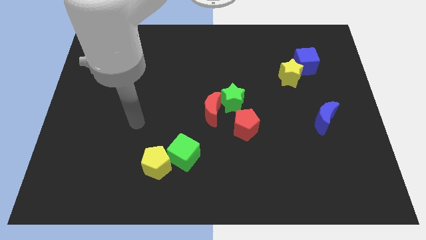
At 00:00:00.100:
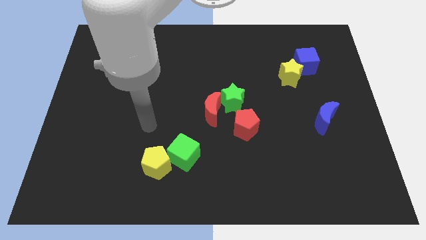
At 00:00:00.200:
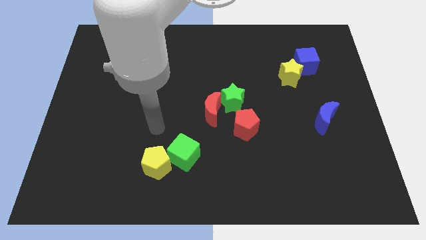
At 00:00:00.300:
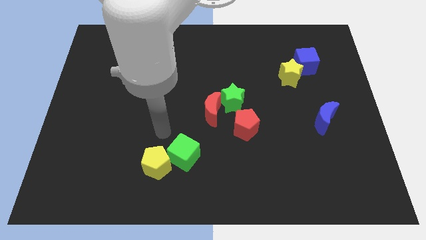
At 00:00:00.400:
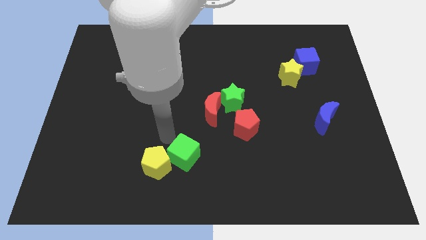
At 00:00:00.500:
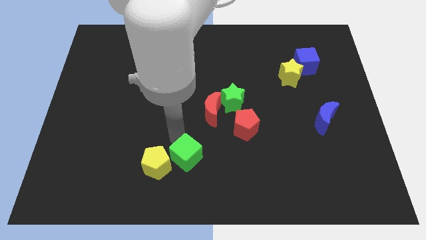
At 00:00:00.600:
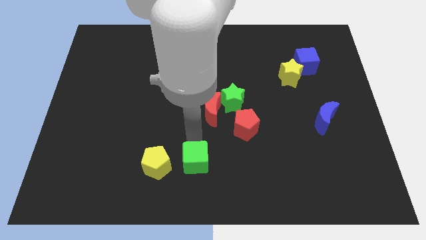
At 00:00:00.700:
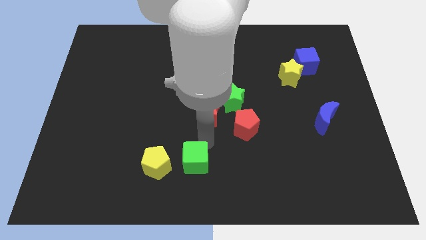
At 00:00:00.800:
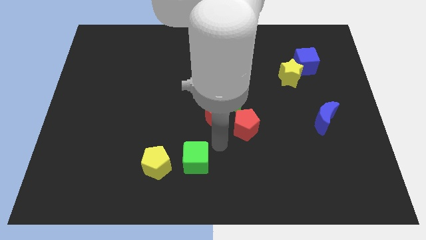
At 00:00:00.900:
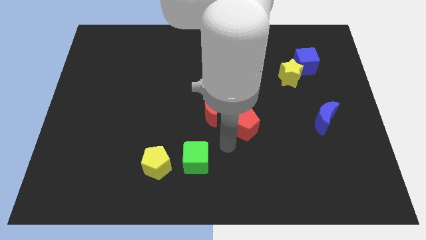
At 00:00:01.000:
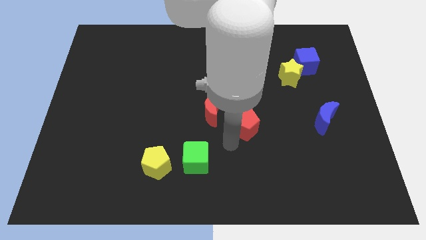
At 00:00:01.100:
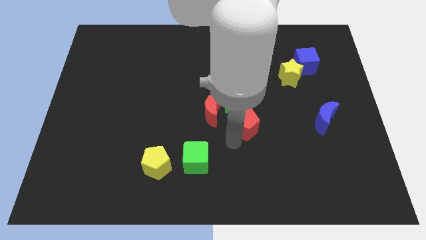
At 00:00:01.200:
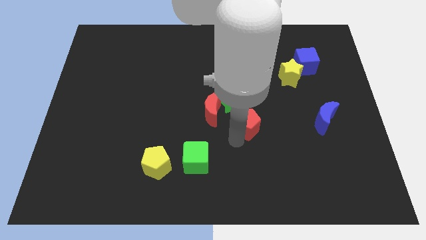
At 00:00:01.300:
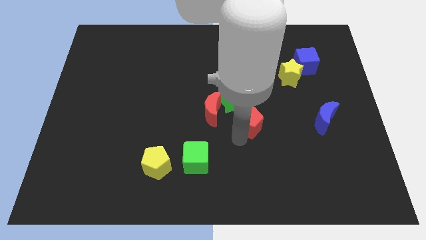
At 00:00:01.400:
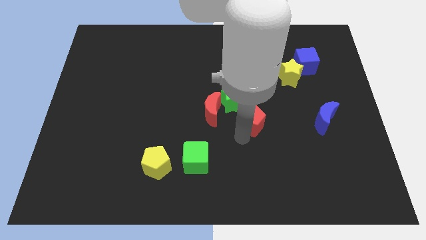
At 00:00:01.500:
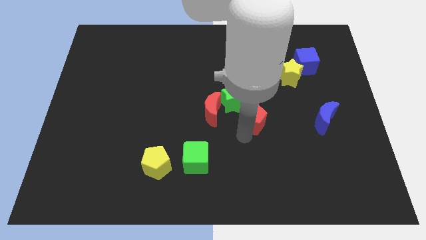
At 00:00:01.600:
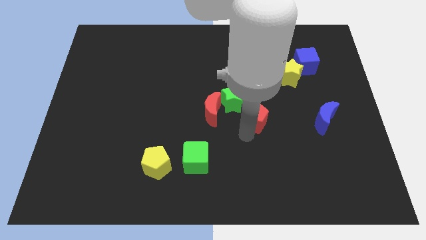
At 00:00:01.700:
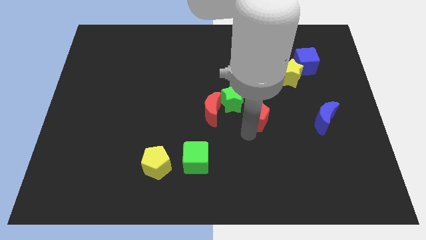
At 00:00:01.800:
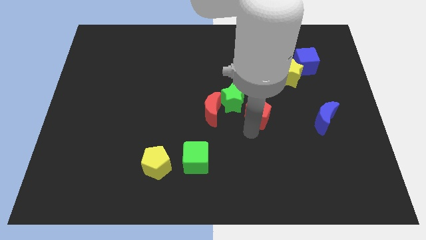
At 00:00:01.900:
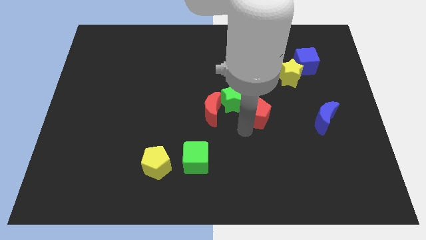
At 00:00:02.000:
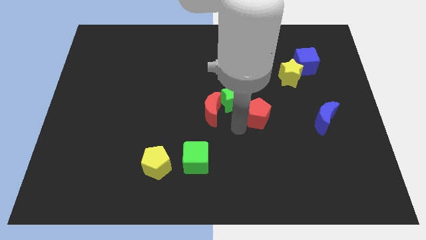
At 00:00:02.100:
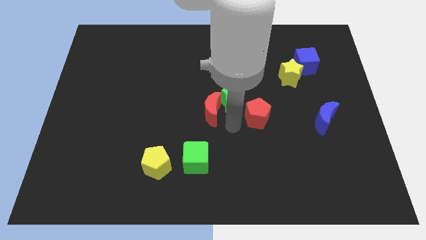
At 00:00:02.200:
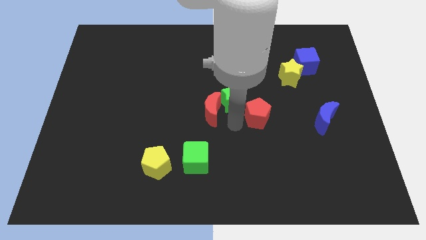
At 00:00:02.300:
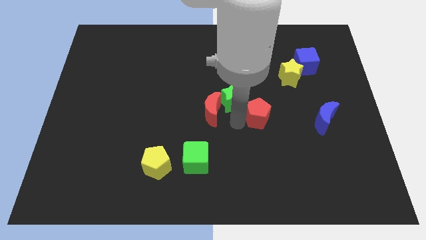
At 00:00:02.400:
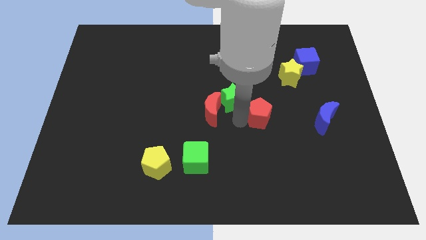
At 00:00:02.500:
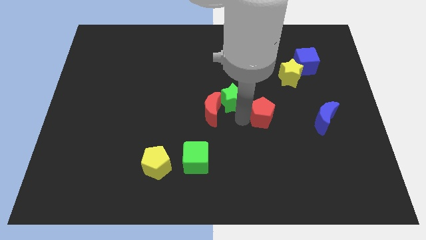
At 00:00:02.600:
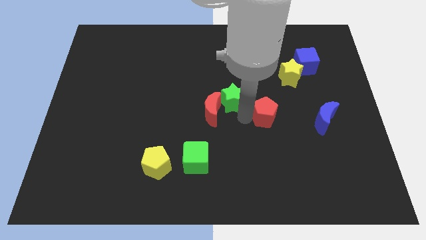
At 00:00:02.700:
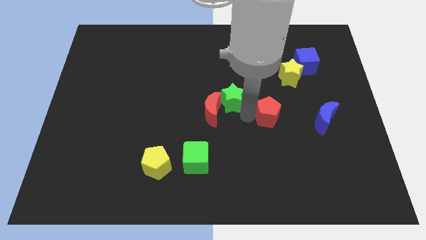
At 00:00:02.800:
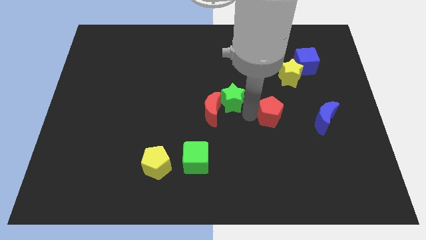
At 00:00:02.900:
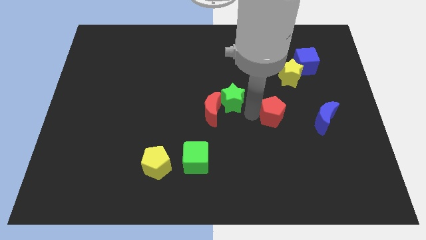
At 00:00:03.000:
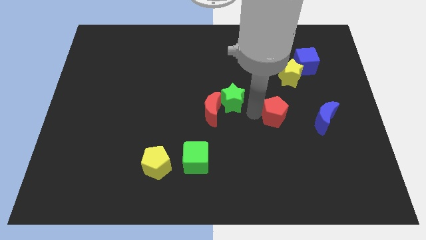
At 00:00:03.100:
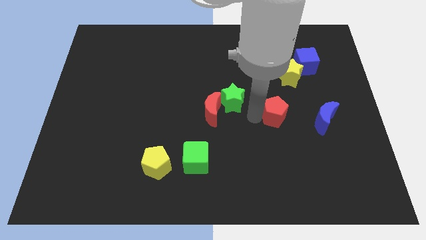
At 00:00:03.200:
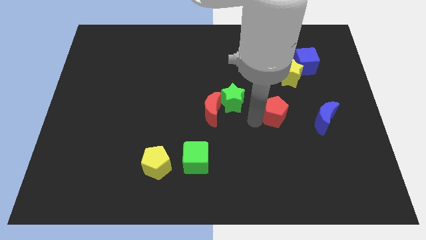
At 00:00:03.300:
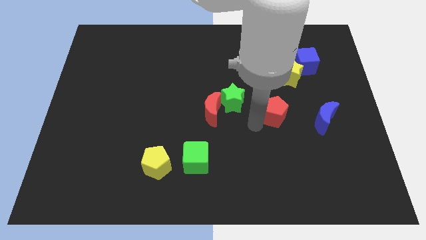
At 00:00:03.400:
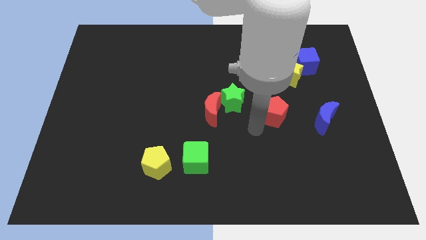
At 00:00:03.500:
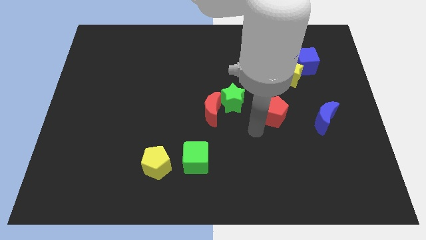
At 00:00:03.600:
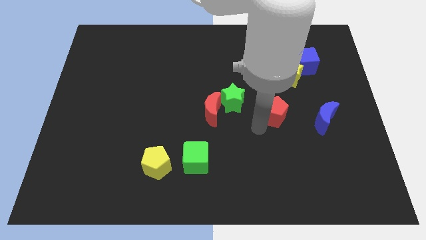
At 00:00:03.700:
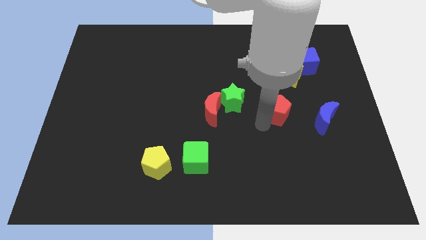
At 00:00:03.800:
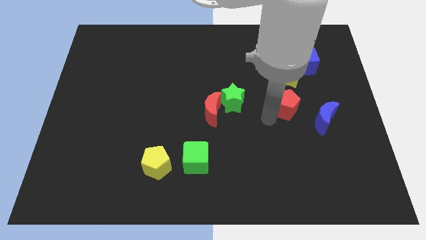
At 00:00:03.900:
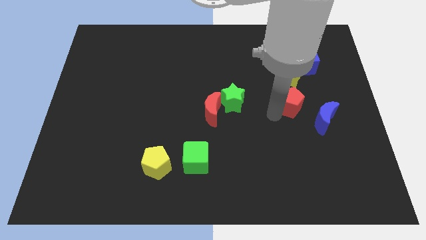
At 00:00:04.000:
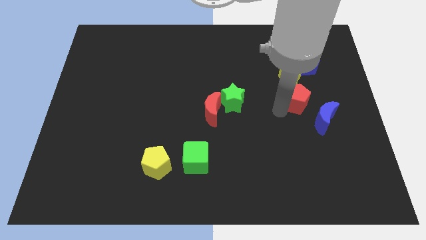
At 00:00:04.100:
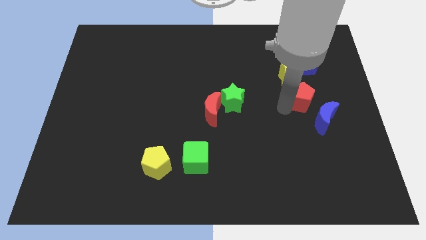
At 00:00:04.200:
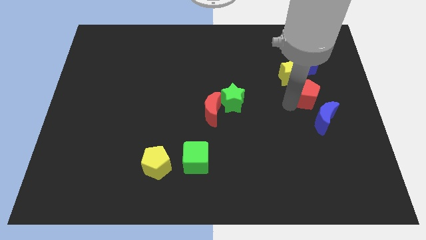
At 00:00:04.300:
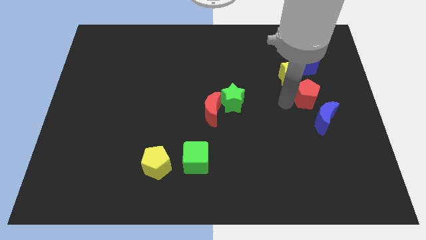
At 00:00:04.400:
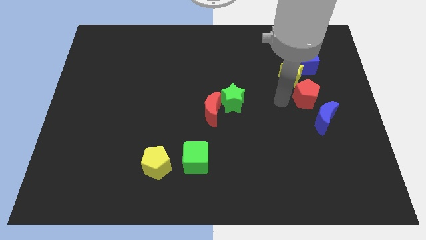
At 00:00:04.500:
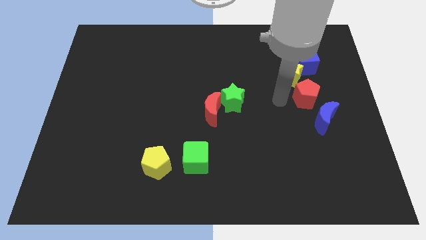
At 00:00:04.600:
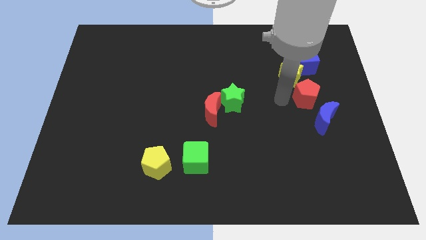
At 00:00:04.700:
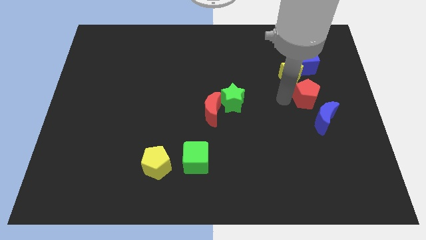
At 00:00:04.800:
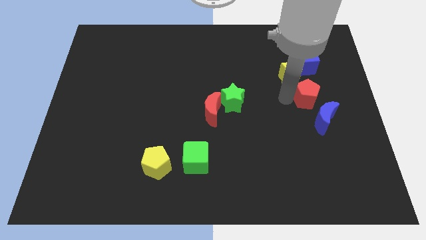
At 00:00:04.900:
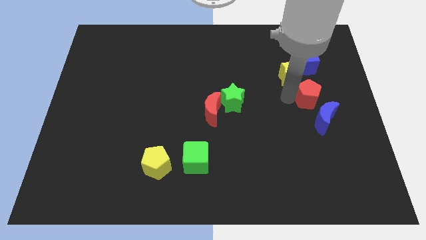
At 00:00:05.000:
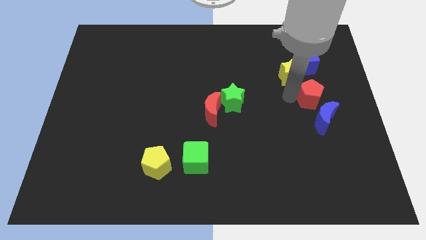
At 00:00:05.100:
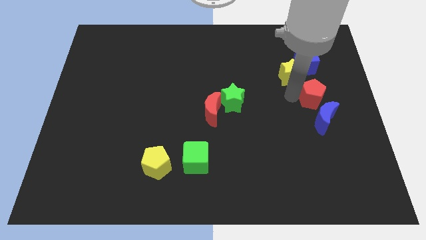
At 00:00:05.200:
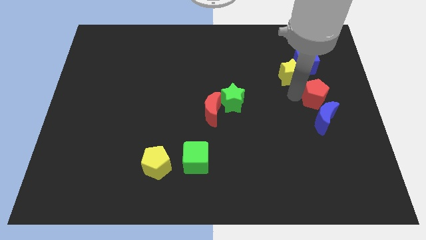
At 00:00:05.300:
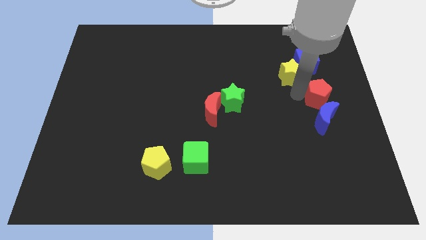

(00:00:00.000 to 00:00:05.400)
move the red pentagon to the right side

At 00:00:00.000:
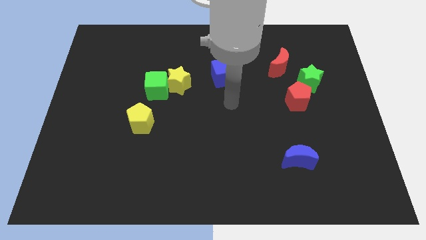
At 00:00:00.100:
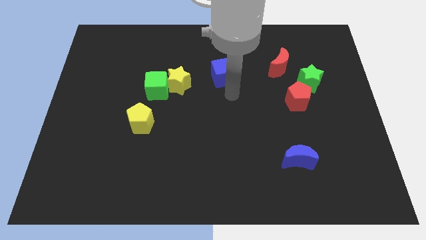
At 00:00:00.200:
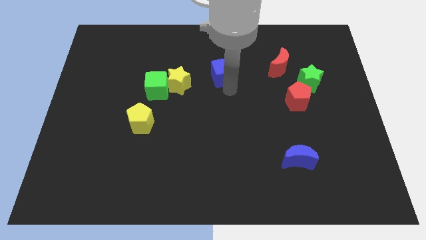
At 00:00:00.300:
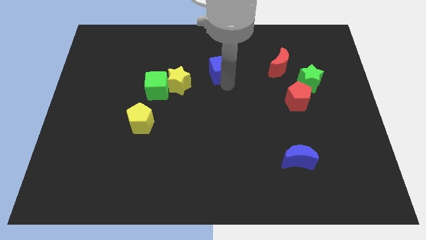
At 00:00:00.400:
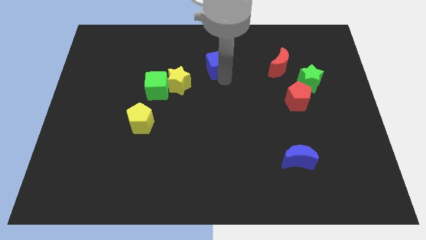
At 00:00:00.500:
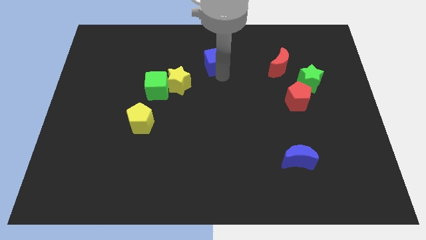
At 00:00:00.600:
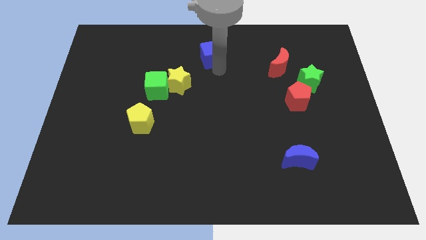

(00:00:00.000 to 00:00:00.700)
put the blue cube to the towards your base
